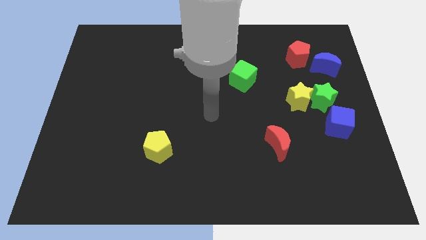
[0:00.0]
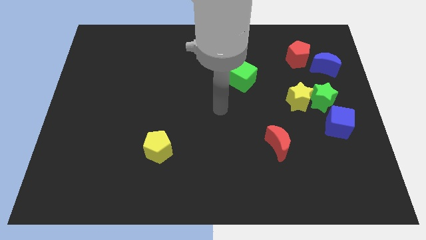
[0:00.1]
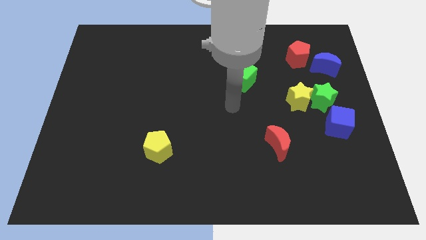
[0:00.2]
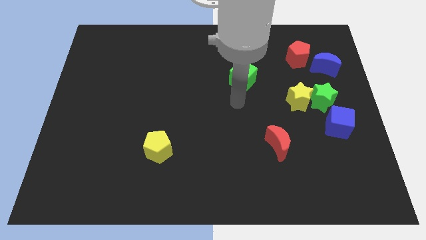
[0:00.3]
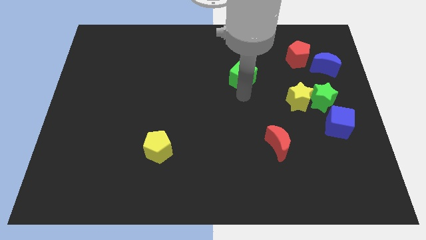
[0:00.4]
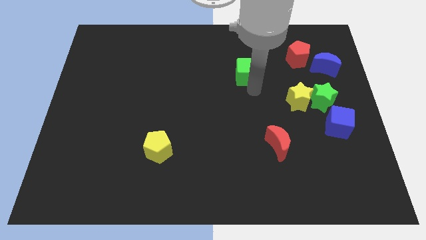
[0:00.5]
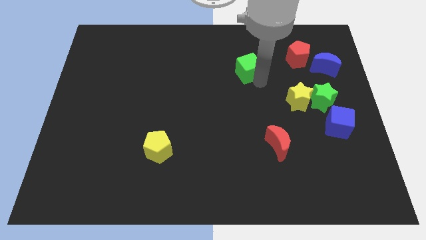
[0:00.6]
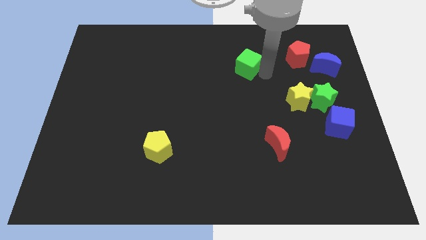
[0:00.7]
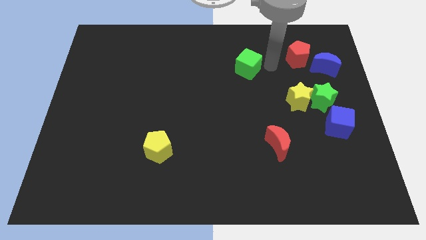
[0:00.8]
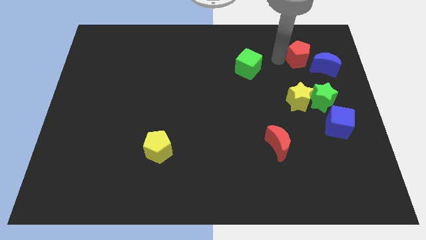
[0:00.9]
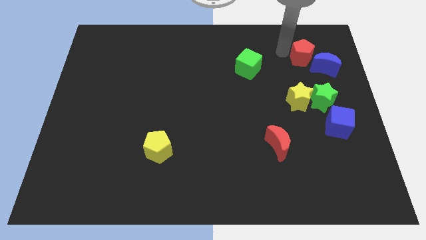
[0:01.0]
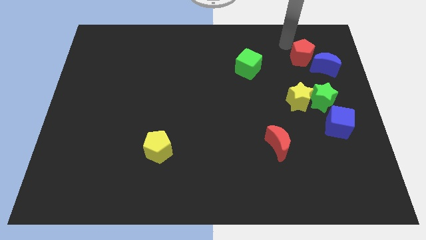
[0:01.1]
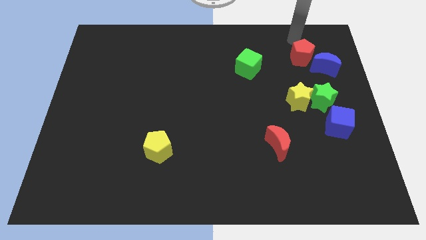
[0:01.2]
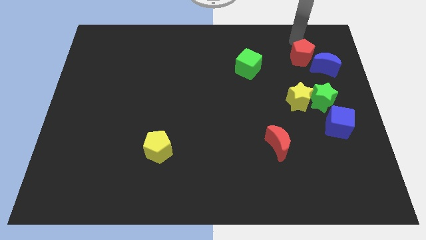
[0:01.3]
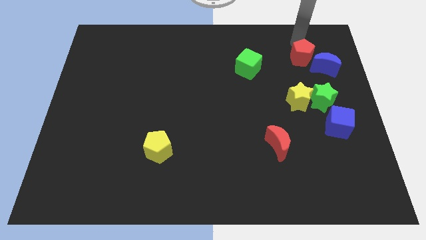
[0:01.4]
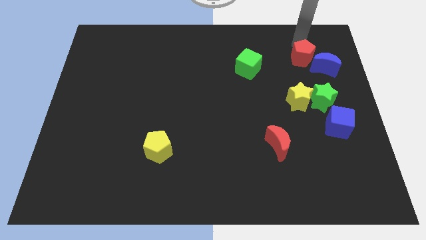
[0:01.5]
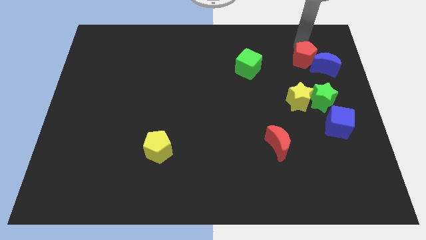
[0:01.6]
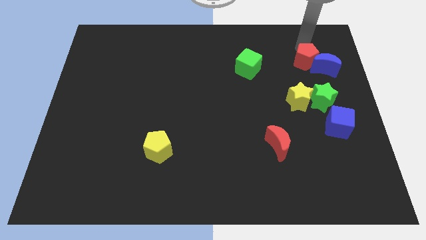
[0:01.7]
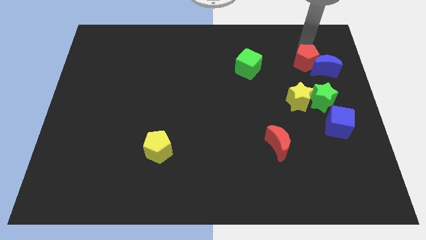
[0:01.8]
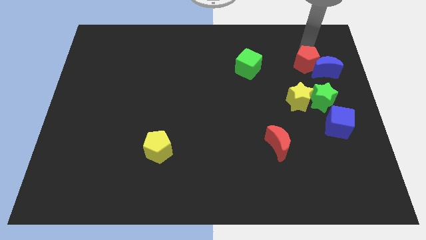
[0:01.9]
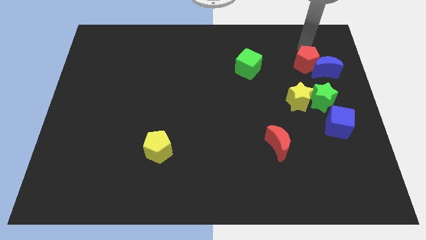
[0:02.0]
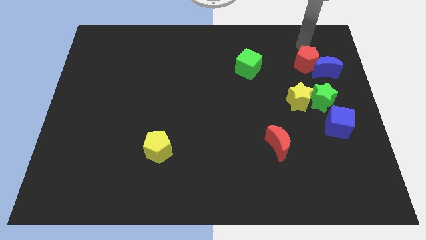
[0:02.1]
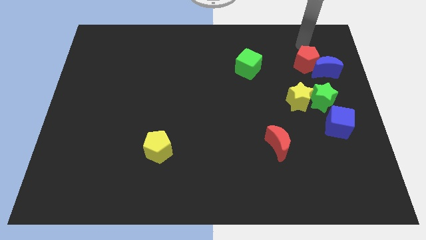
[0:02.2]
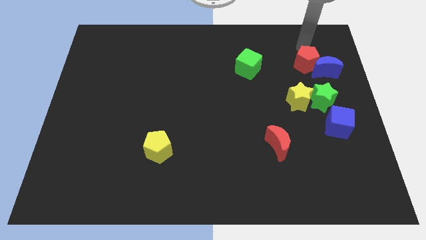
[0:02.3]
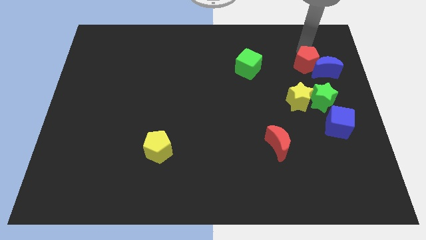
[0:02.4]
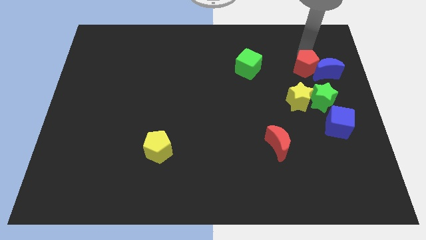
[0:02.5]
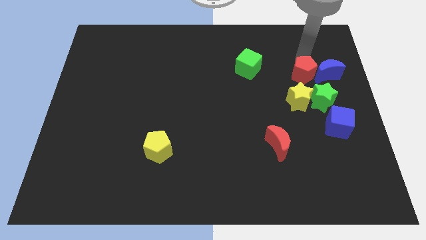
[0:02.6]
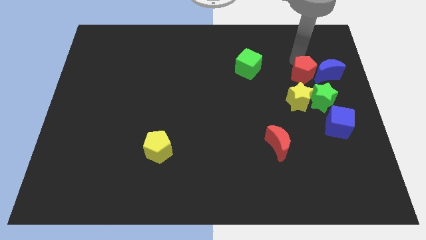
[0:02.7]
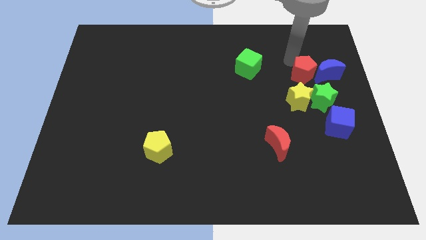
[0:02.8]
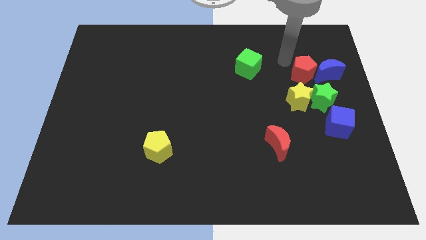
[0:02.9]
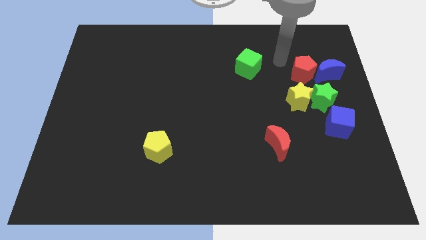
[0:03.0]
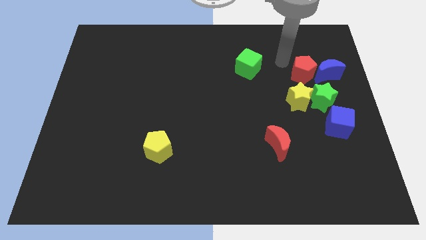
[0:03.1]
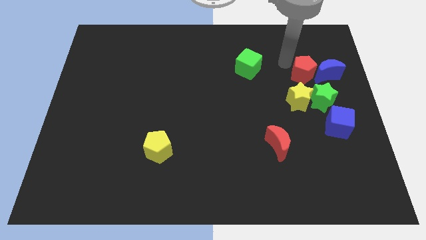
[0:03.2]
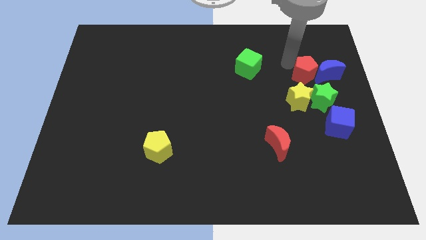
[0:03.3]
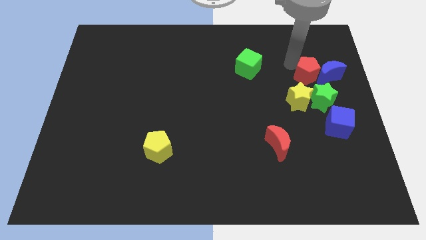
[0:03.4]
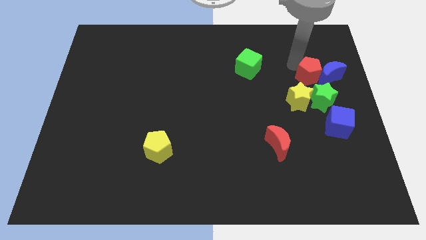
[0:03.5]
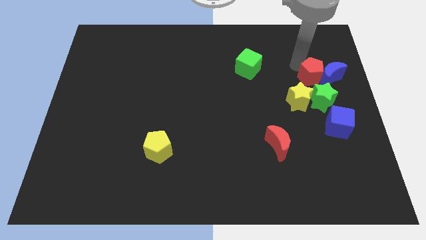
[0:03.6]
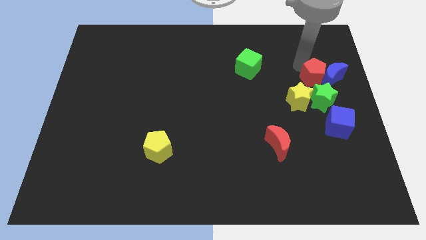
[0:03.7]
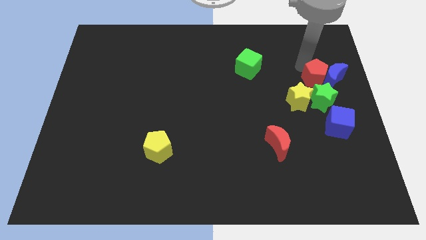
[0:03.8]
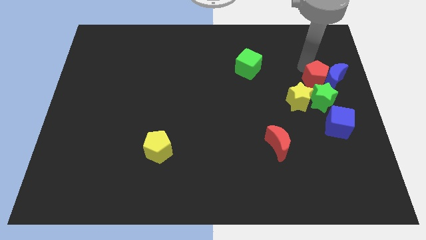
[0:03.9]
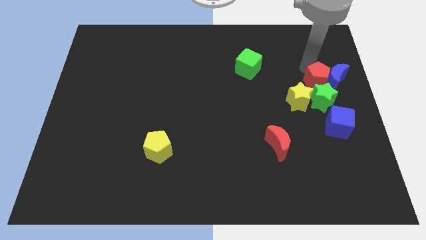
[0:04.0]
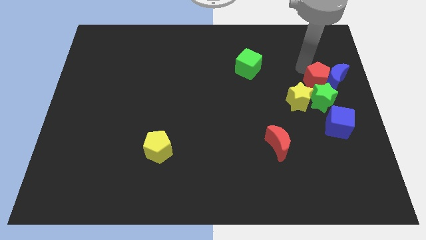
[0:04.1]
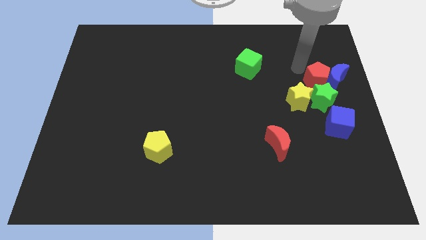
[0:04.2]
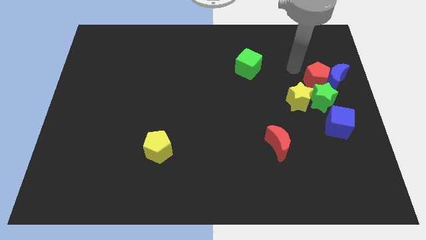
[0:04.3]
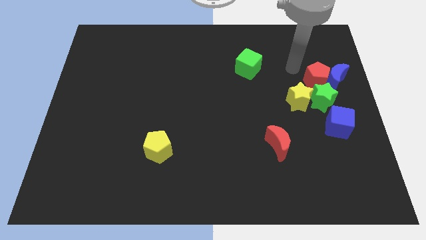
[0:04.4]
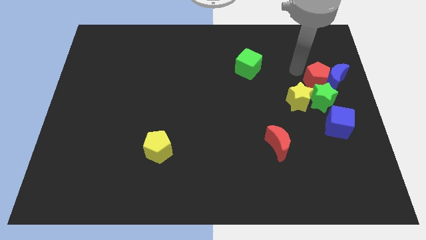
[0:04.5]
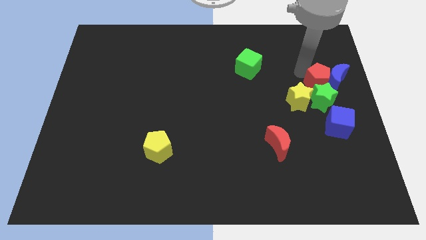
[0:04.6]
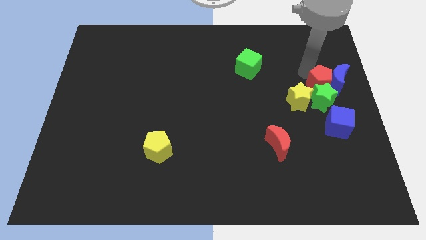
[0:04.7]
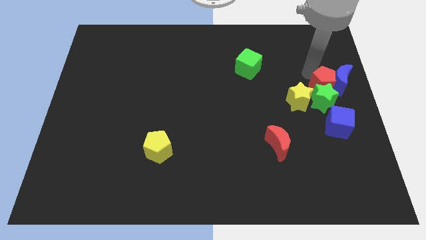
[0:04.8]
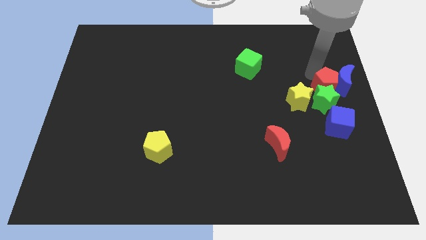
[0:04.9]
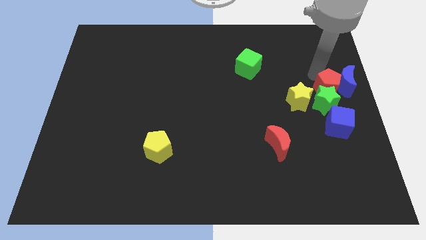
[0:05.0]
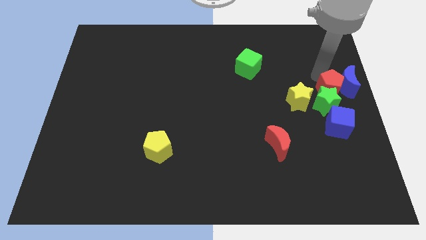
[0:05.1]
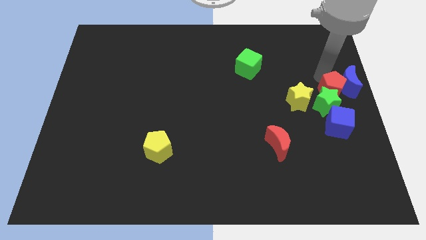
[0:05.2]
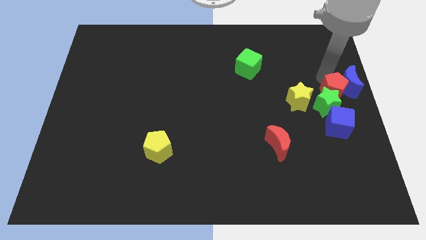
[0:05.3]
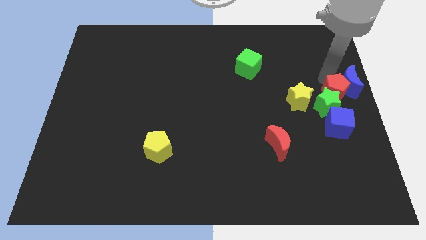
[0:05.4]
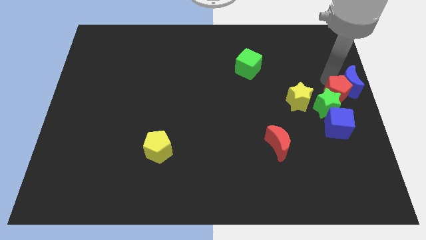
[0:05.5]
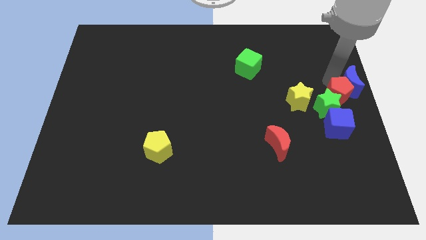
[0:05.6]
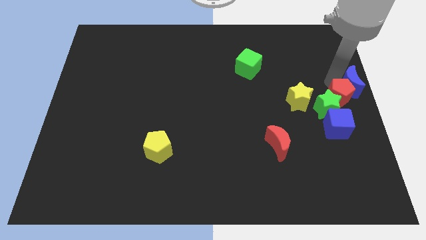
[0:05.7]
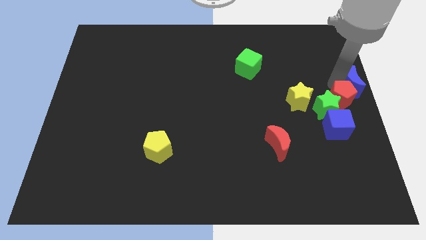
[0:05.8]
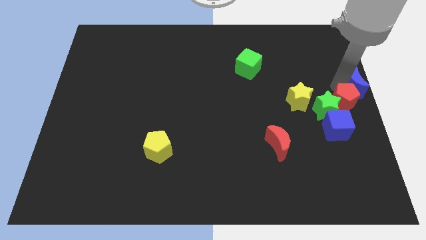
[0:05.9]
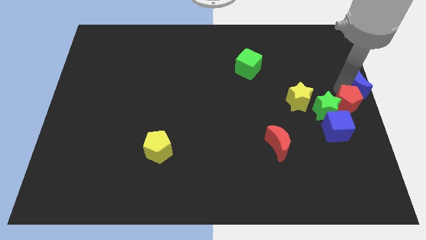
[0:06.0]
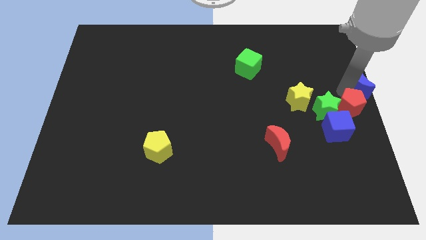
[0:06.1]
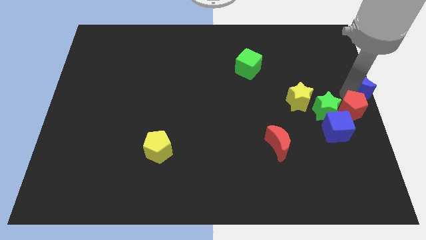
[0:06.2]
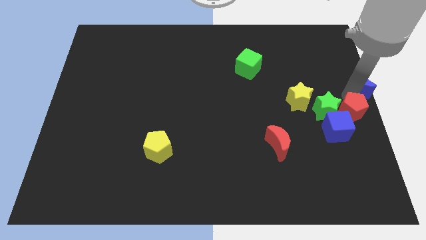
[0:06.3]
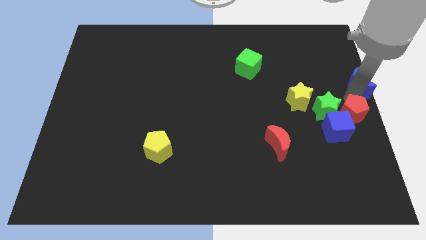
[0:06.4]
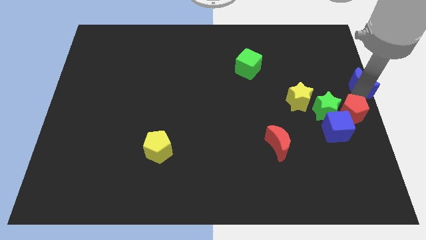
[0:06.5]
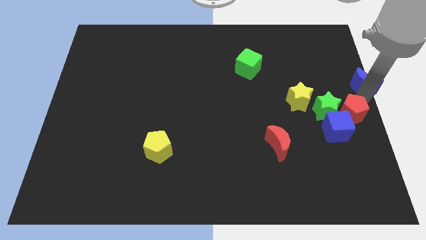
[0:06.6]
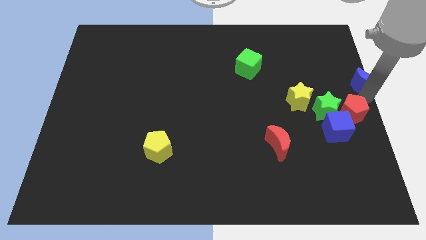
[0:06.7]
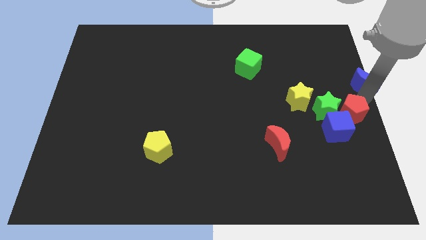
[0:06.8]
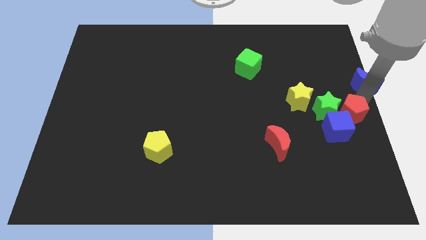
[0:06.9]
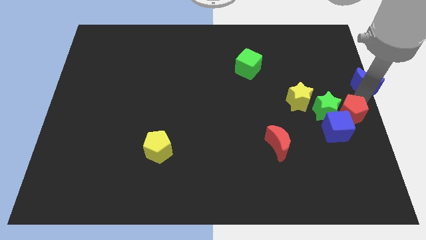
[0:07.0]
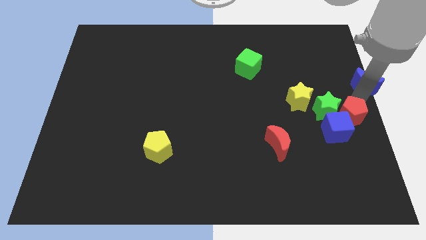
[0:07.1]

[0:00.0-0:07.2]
slide the red pentagon to the blue cube
